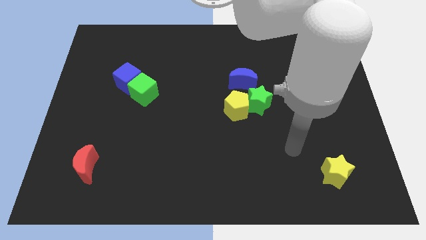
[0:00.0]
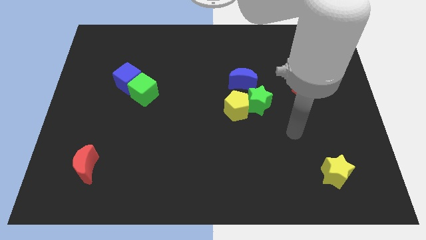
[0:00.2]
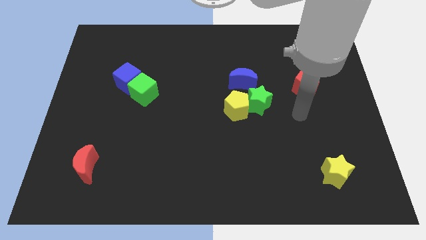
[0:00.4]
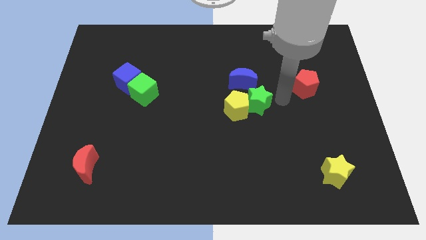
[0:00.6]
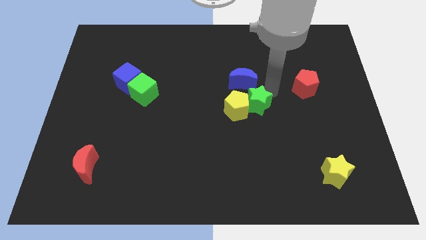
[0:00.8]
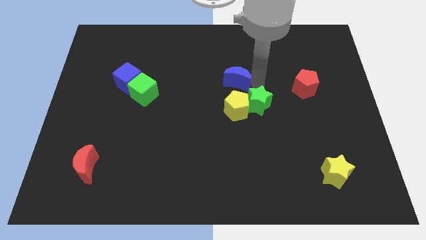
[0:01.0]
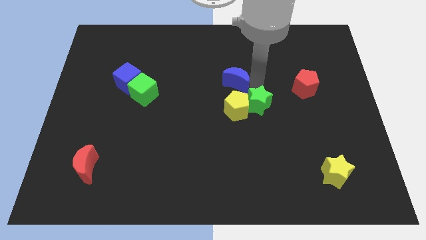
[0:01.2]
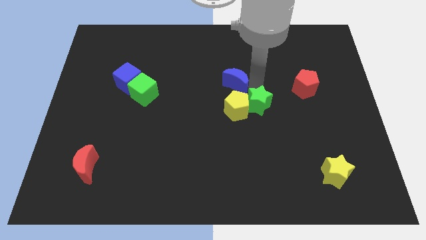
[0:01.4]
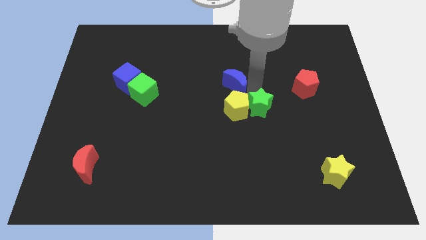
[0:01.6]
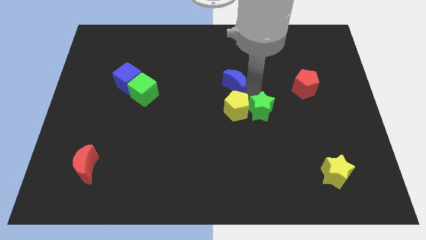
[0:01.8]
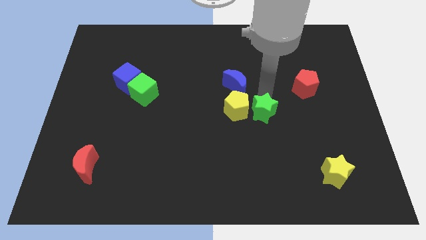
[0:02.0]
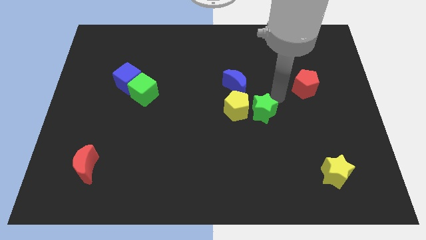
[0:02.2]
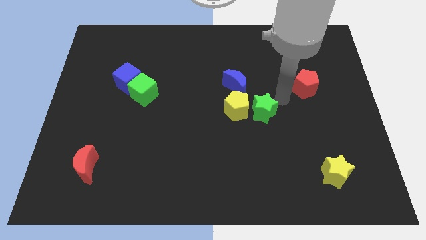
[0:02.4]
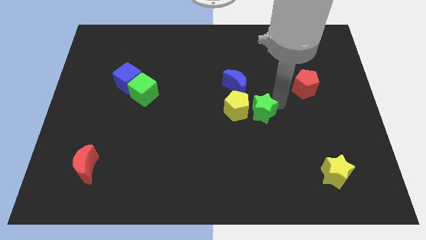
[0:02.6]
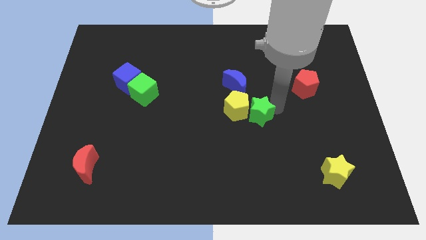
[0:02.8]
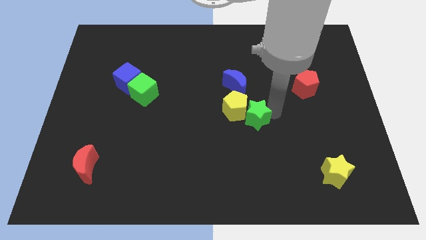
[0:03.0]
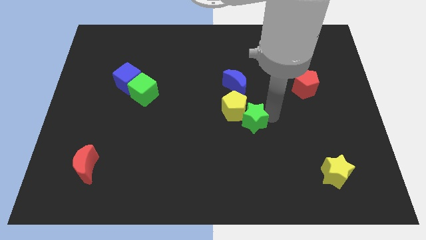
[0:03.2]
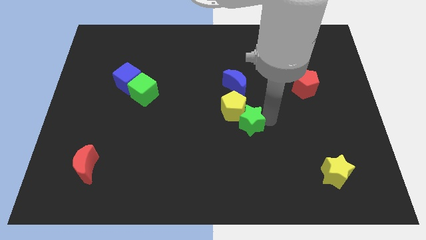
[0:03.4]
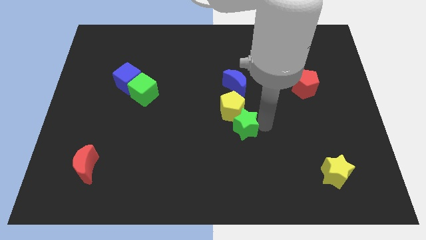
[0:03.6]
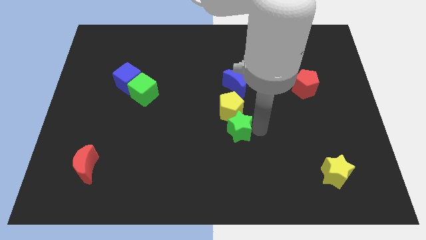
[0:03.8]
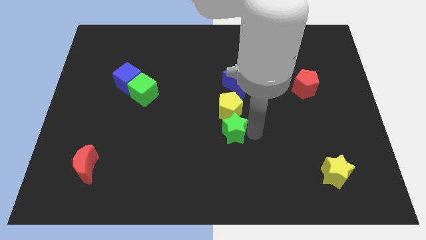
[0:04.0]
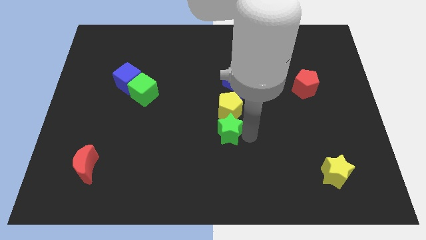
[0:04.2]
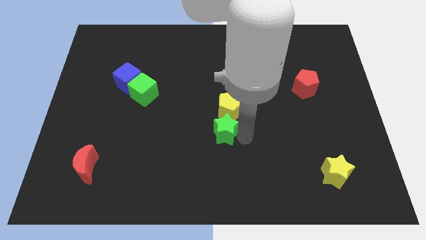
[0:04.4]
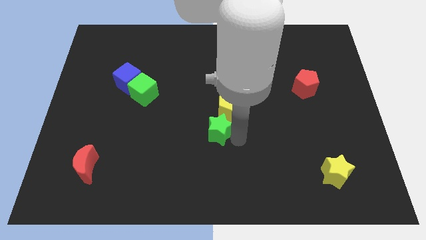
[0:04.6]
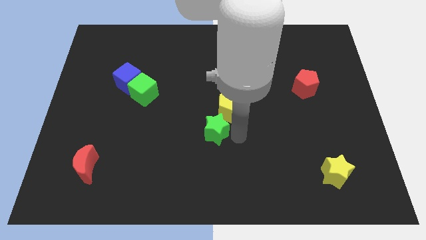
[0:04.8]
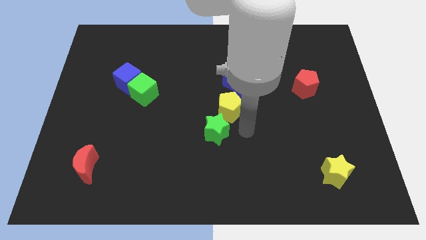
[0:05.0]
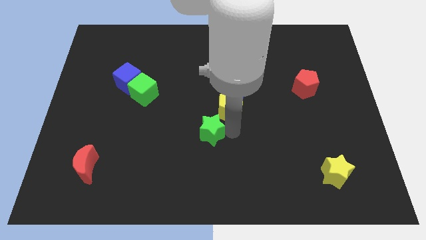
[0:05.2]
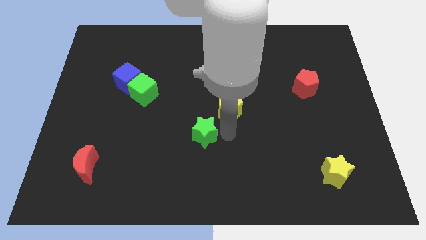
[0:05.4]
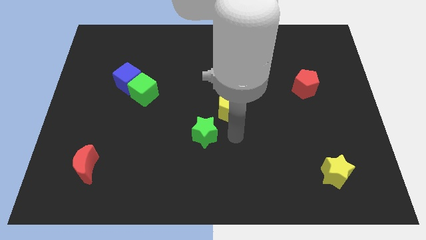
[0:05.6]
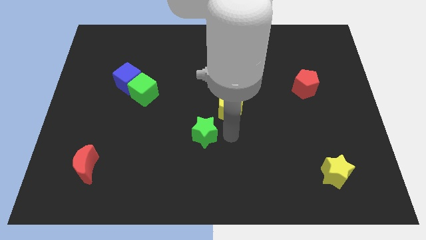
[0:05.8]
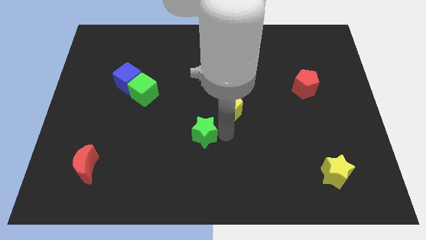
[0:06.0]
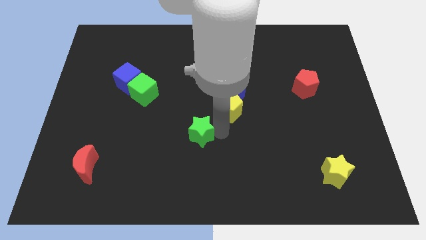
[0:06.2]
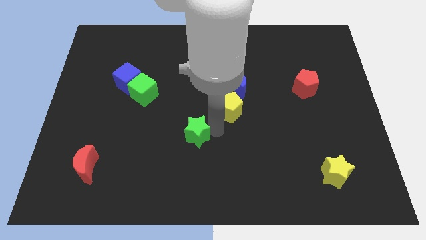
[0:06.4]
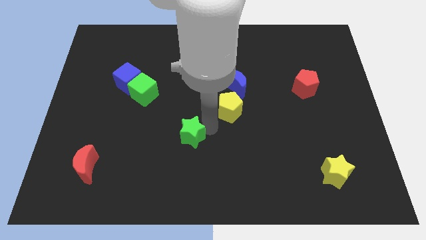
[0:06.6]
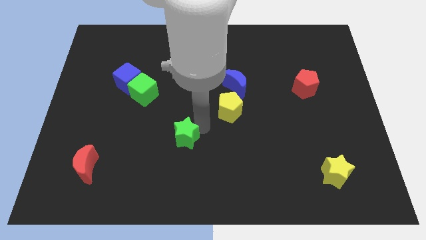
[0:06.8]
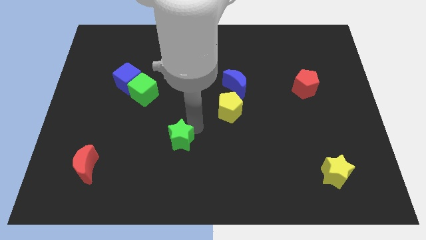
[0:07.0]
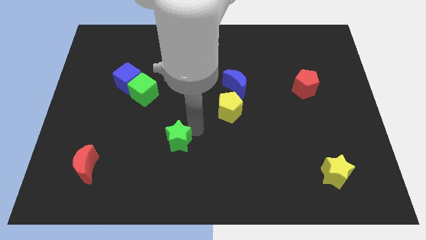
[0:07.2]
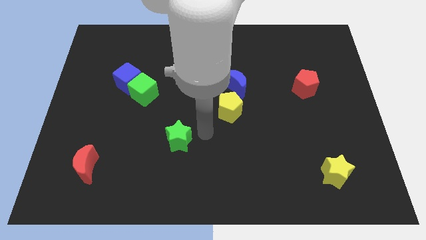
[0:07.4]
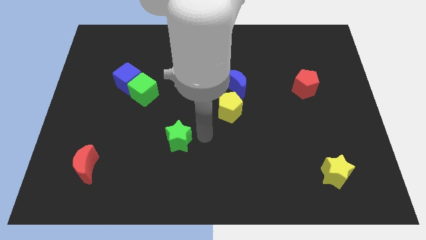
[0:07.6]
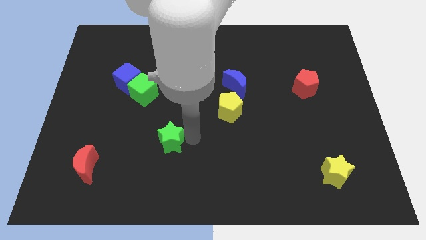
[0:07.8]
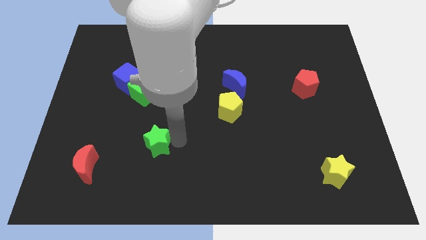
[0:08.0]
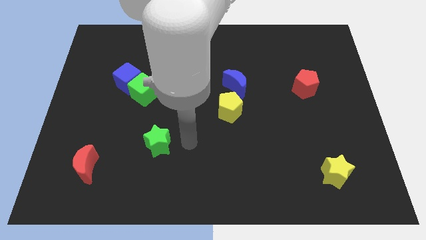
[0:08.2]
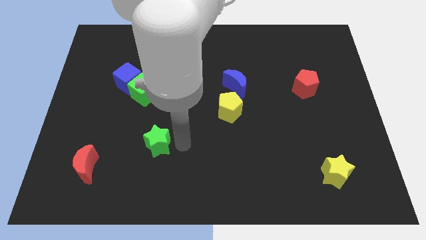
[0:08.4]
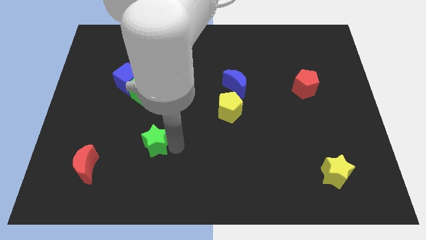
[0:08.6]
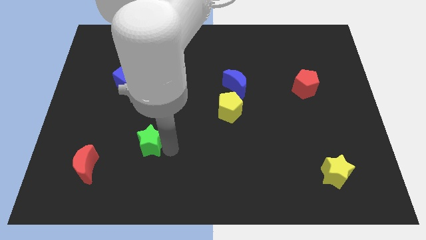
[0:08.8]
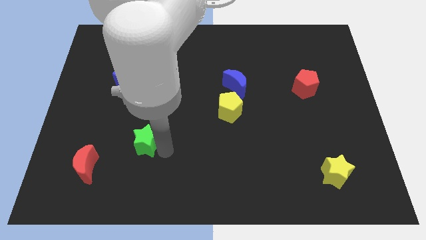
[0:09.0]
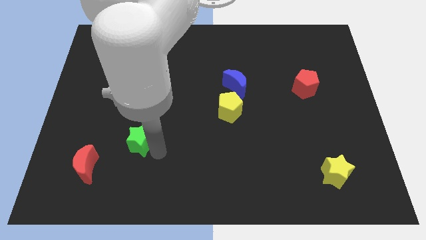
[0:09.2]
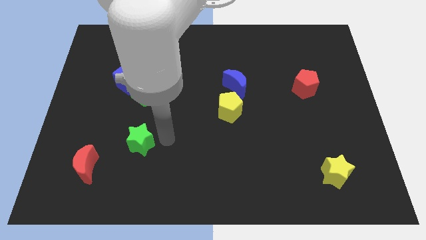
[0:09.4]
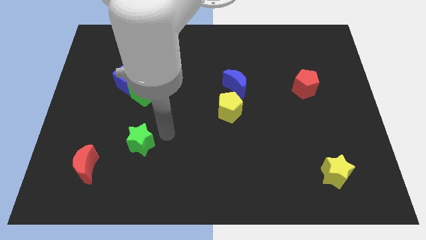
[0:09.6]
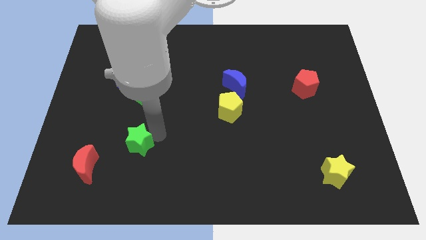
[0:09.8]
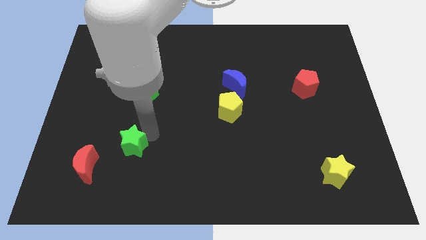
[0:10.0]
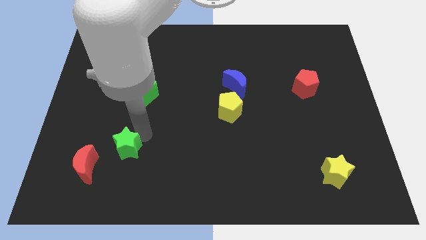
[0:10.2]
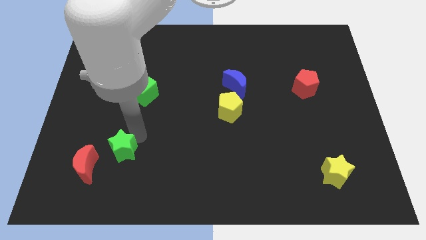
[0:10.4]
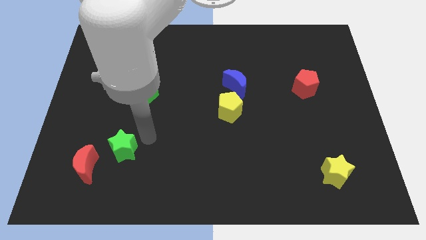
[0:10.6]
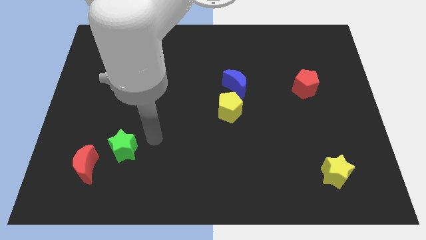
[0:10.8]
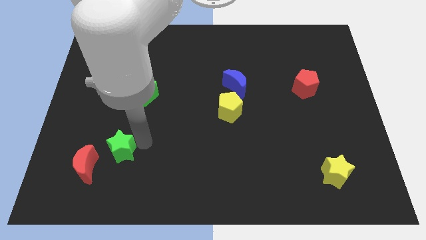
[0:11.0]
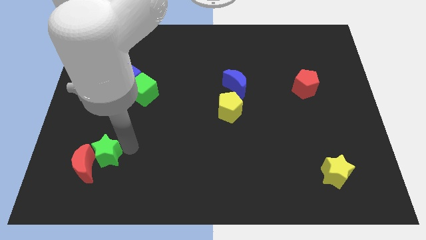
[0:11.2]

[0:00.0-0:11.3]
push the green star to the red moon

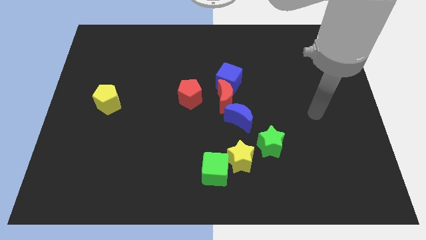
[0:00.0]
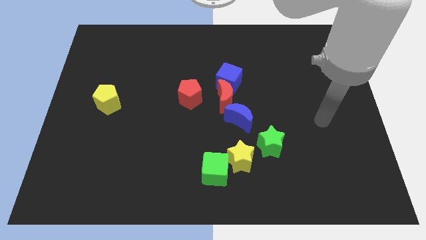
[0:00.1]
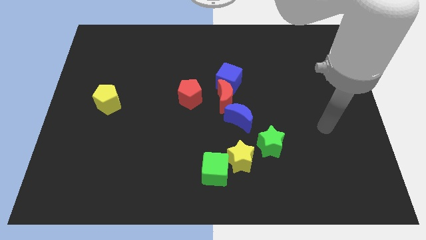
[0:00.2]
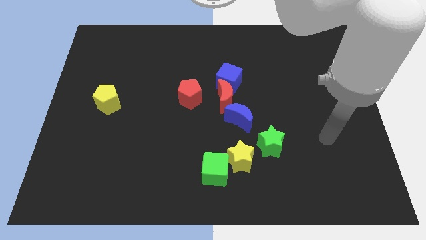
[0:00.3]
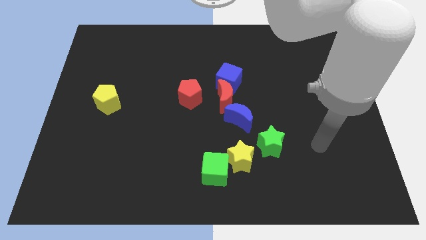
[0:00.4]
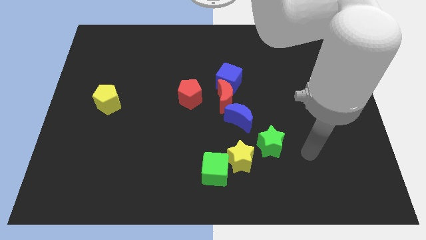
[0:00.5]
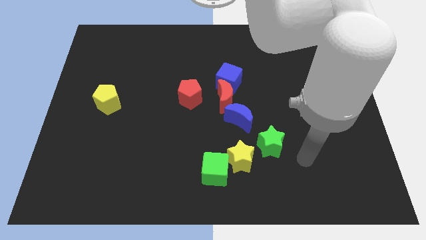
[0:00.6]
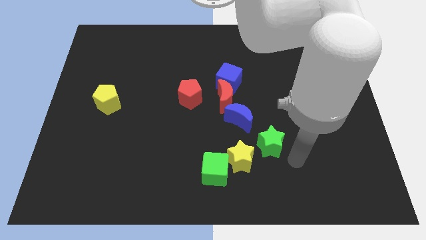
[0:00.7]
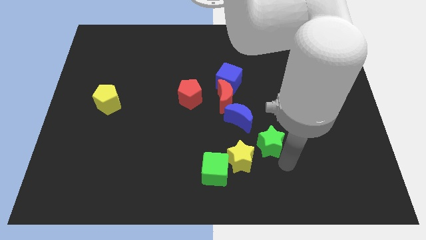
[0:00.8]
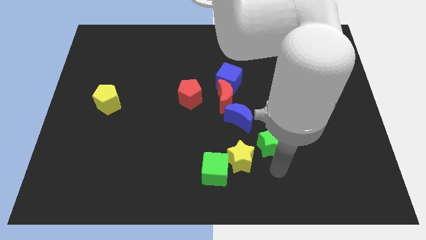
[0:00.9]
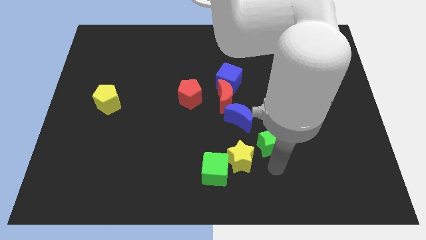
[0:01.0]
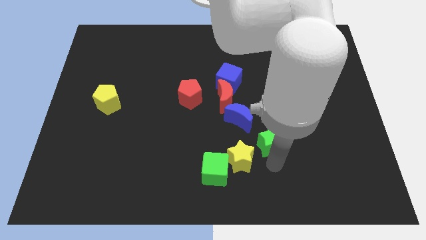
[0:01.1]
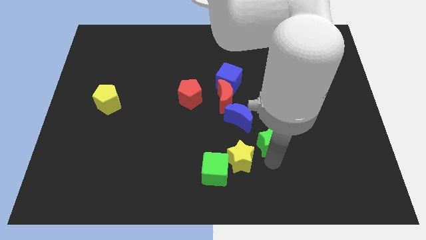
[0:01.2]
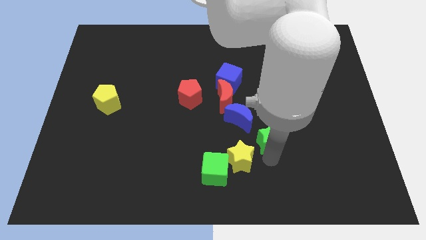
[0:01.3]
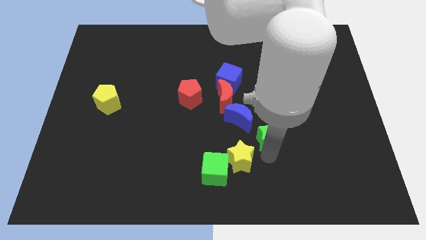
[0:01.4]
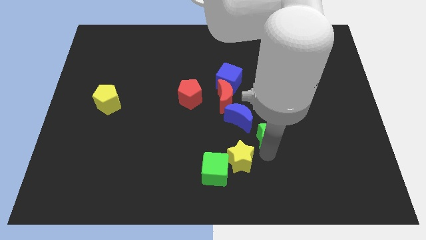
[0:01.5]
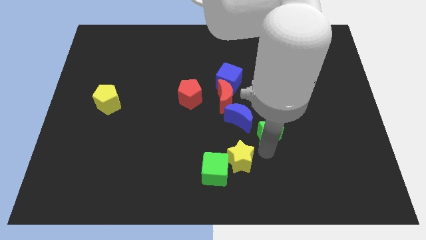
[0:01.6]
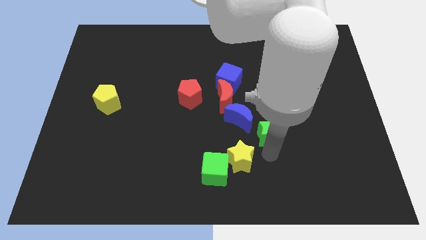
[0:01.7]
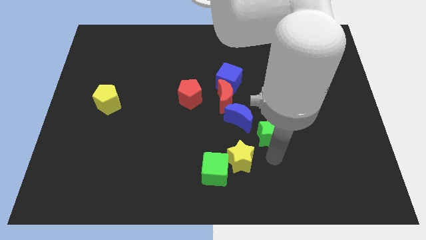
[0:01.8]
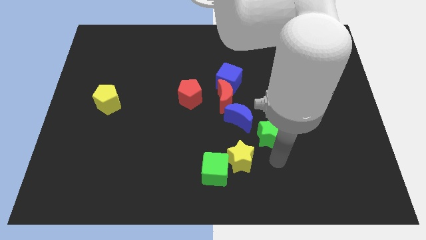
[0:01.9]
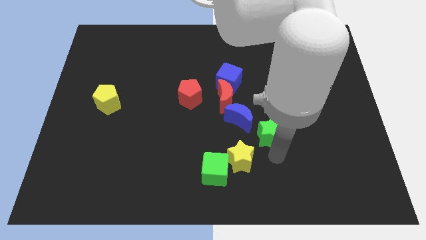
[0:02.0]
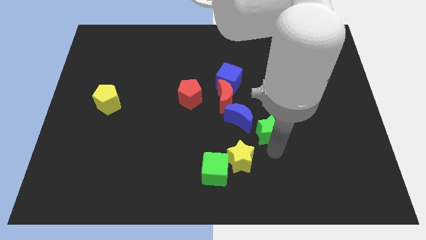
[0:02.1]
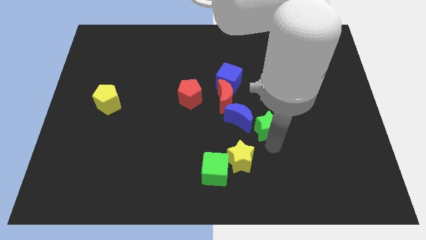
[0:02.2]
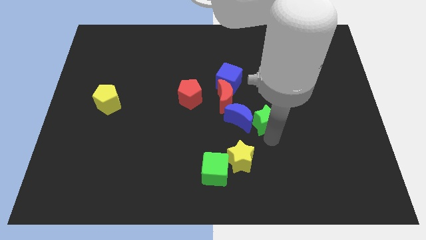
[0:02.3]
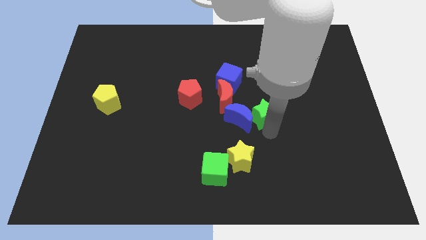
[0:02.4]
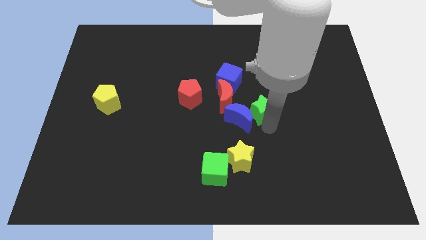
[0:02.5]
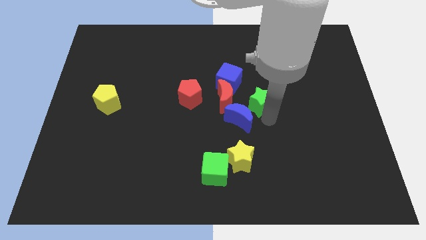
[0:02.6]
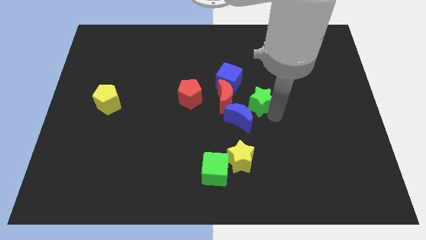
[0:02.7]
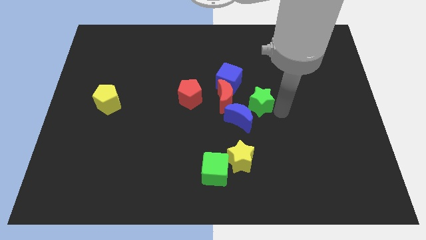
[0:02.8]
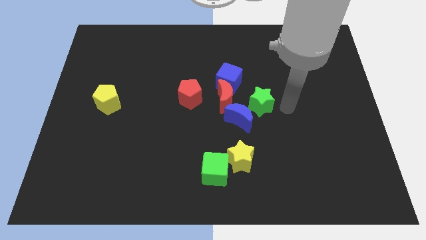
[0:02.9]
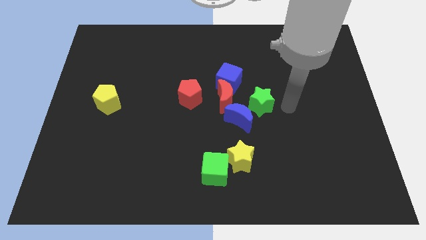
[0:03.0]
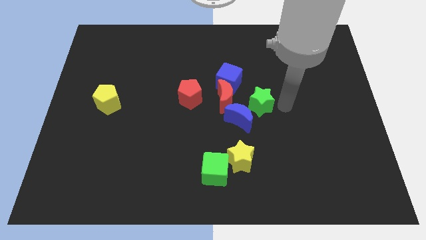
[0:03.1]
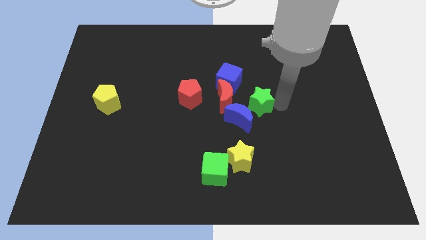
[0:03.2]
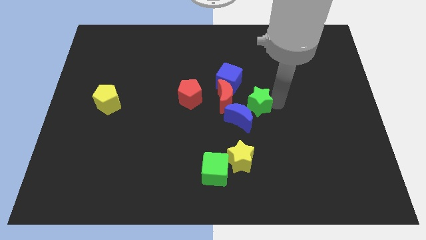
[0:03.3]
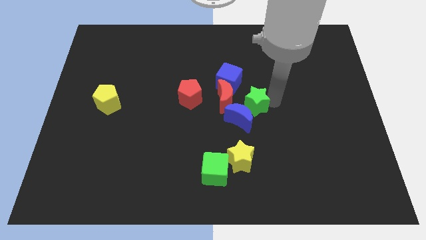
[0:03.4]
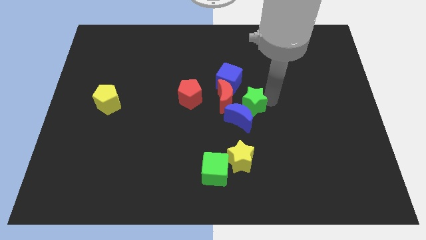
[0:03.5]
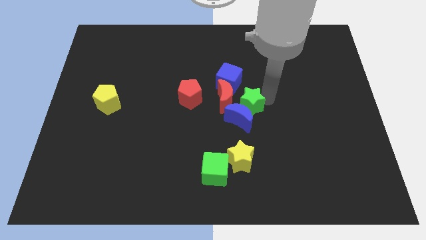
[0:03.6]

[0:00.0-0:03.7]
put the green star to the red moon
